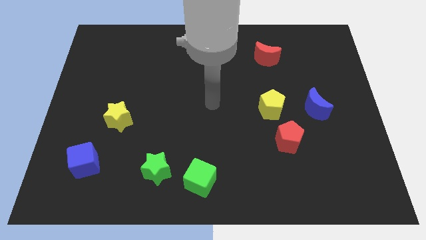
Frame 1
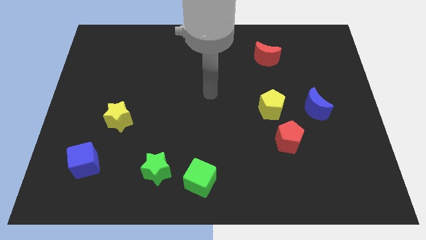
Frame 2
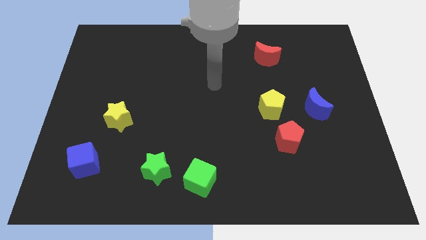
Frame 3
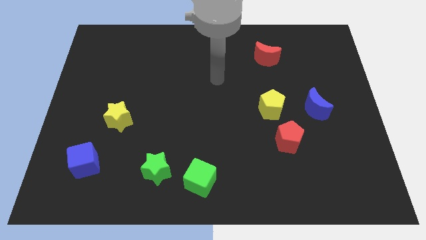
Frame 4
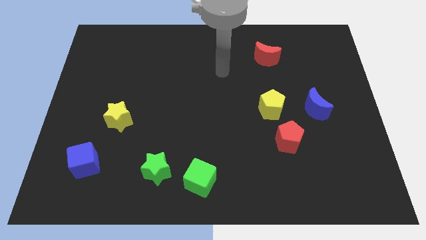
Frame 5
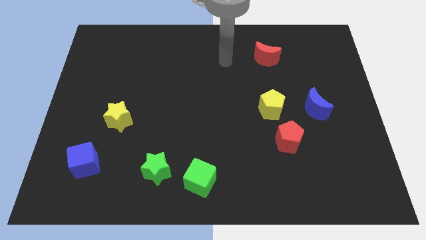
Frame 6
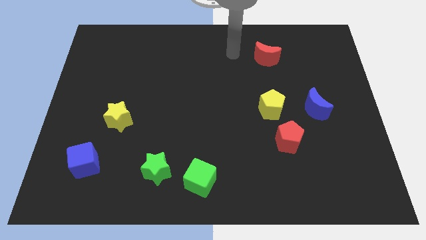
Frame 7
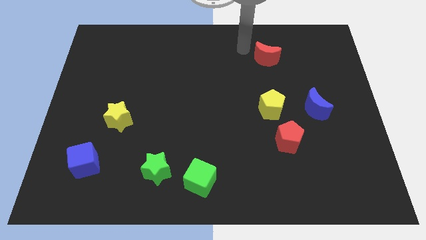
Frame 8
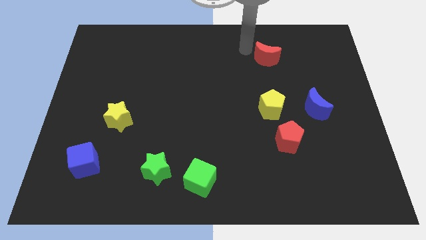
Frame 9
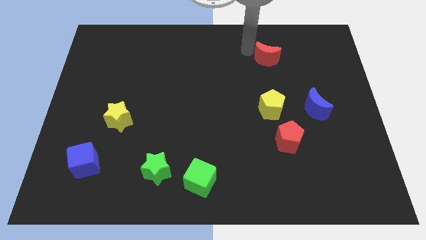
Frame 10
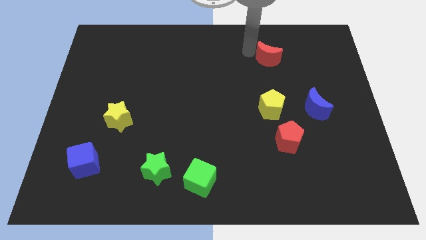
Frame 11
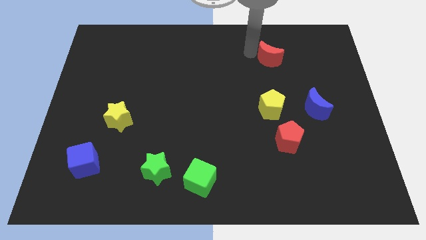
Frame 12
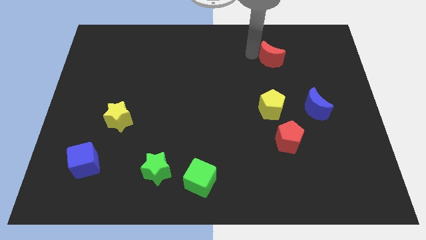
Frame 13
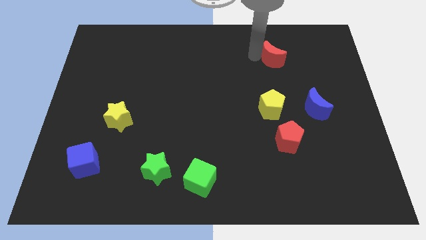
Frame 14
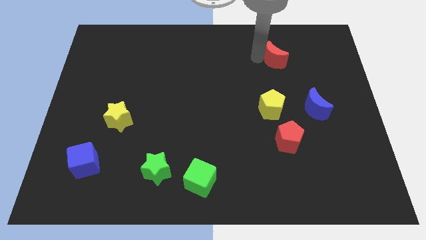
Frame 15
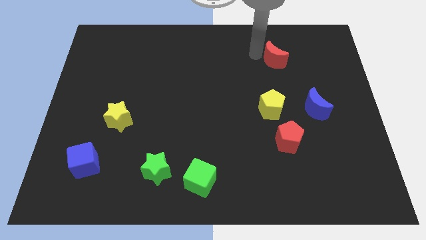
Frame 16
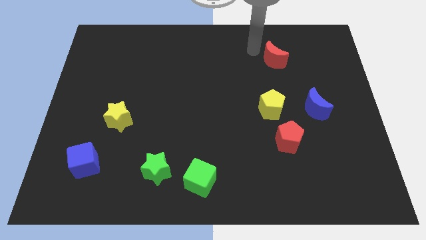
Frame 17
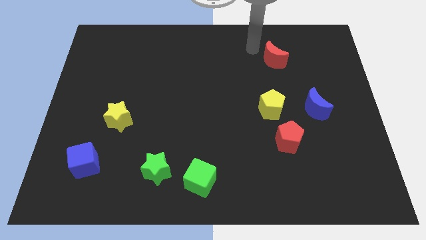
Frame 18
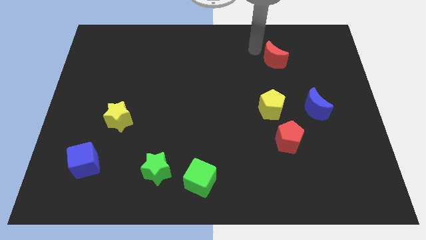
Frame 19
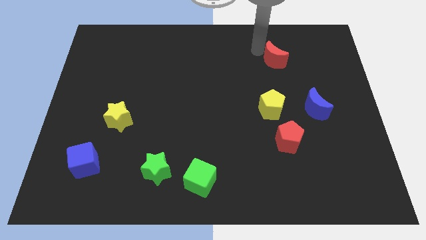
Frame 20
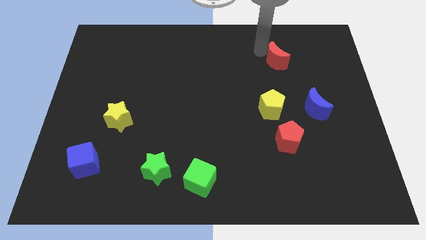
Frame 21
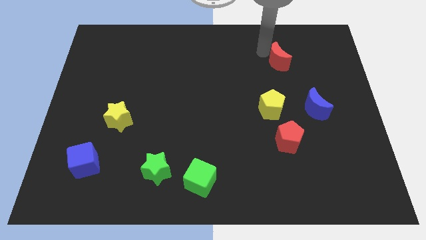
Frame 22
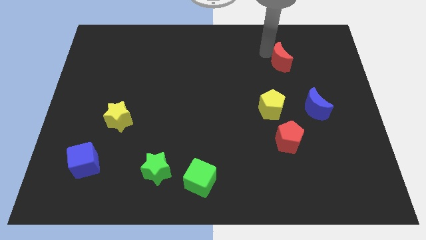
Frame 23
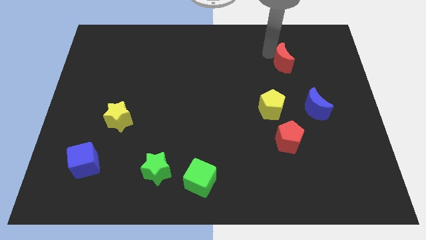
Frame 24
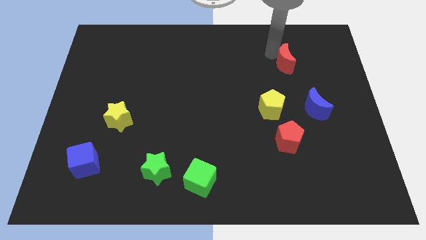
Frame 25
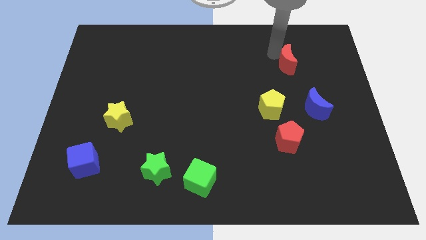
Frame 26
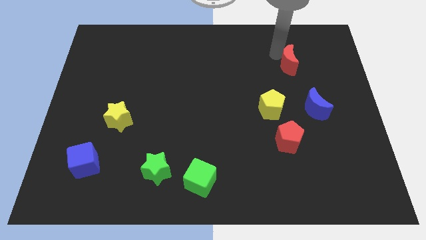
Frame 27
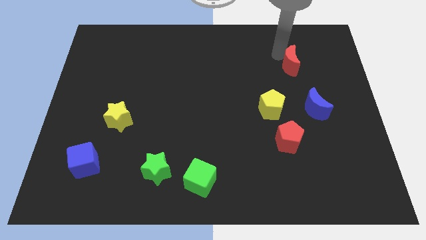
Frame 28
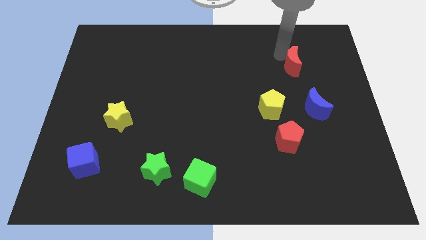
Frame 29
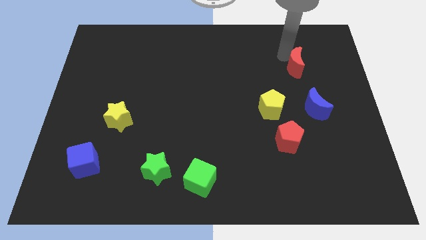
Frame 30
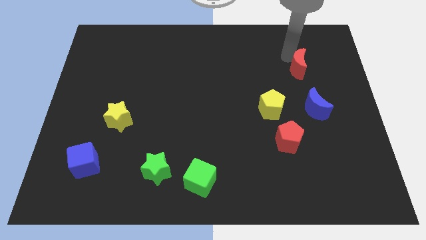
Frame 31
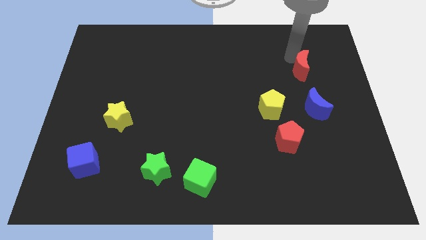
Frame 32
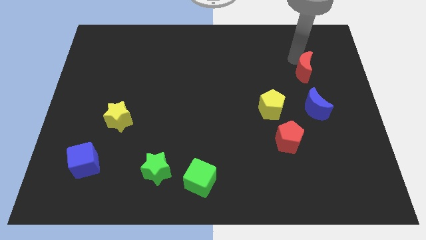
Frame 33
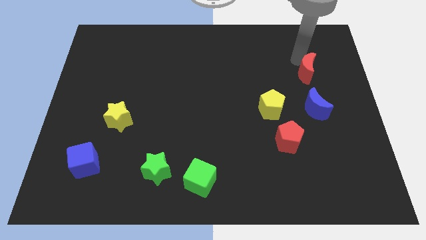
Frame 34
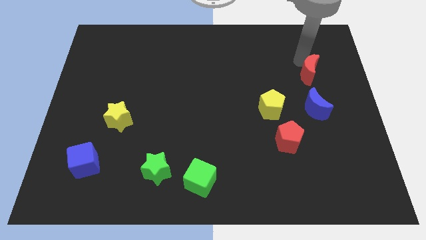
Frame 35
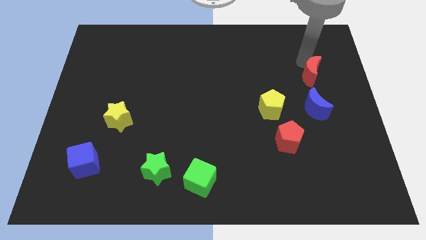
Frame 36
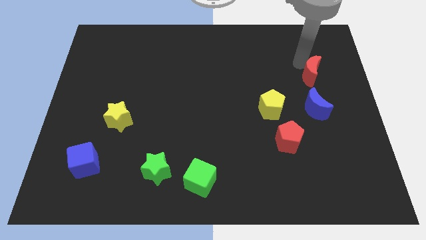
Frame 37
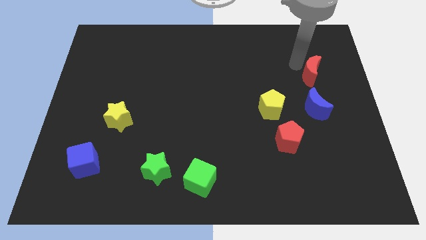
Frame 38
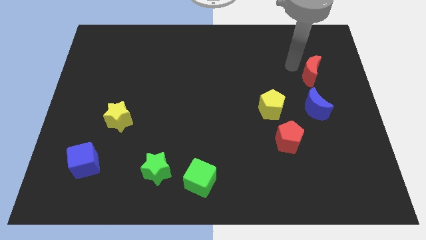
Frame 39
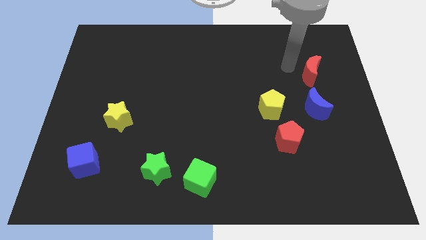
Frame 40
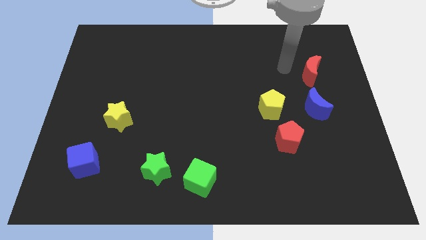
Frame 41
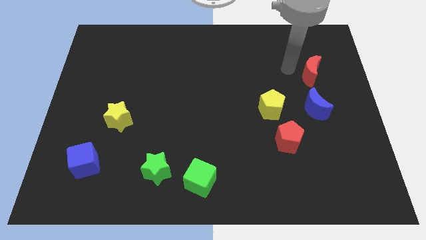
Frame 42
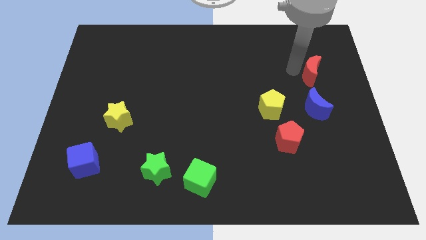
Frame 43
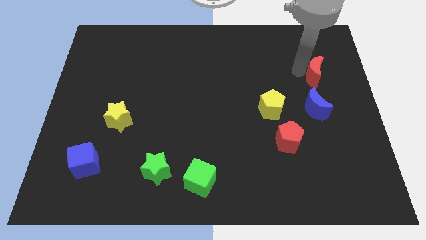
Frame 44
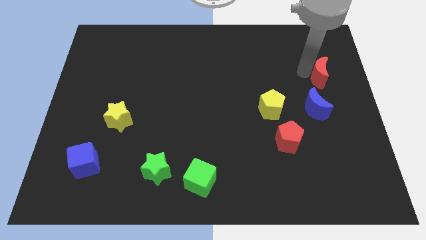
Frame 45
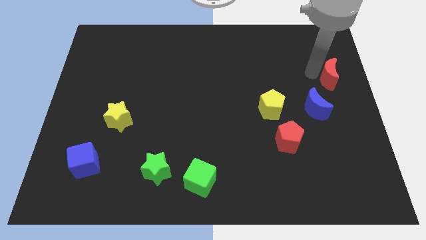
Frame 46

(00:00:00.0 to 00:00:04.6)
move the red moon to the right side

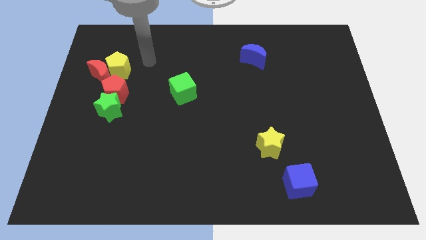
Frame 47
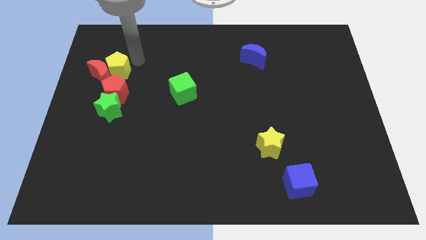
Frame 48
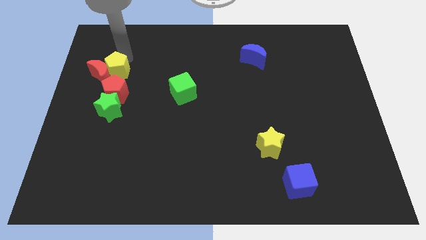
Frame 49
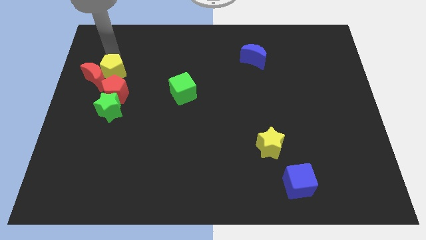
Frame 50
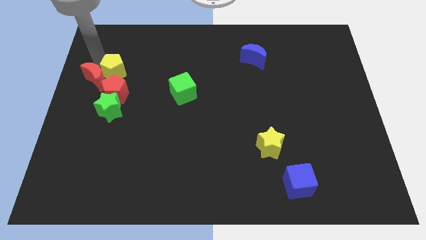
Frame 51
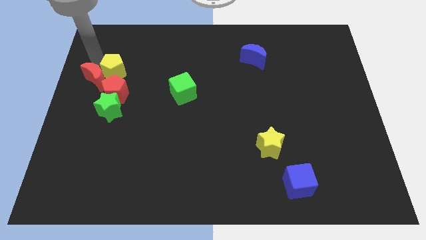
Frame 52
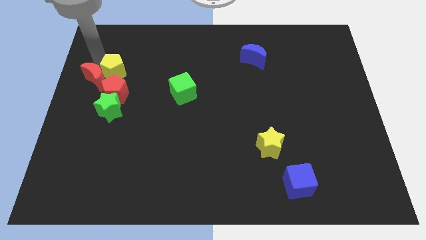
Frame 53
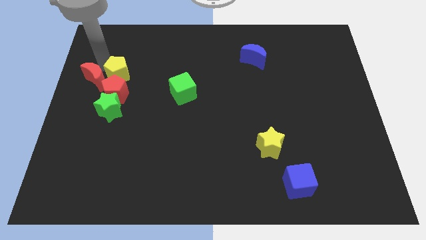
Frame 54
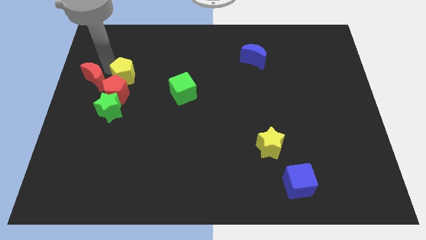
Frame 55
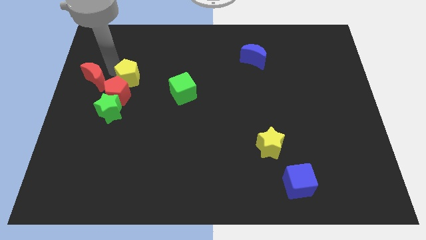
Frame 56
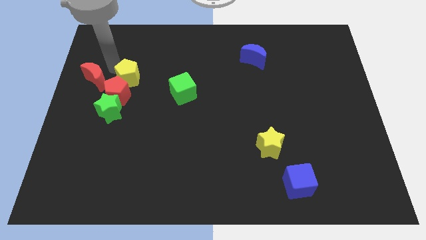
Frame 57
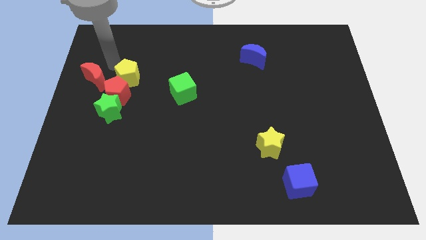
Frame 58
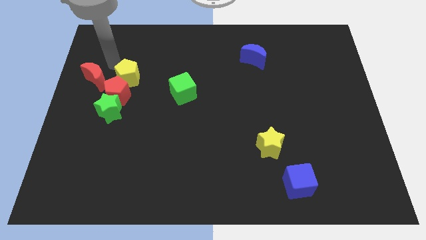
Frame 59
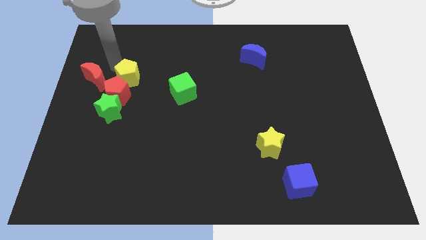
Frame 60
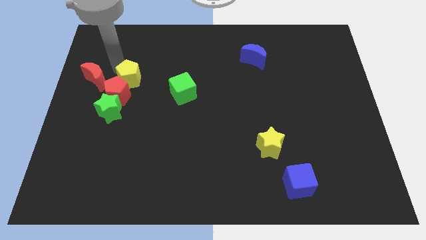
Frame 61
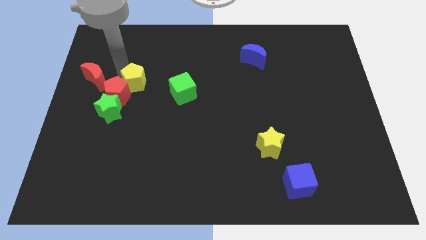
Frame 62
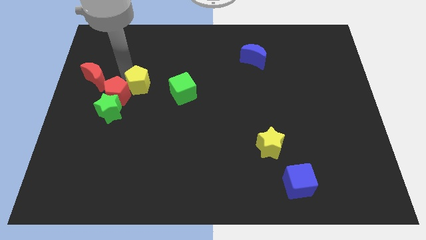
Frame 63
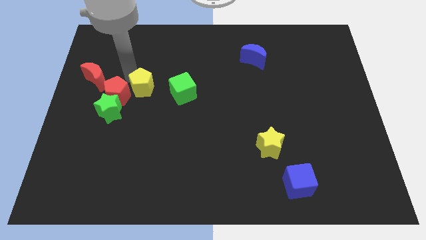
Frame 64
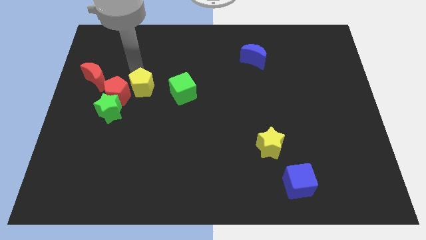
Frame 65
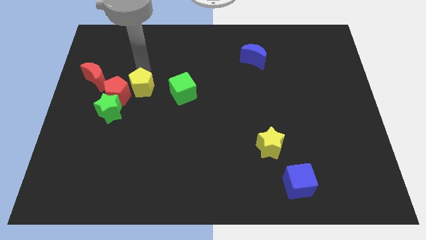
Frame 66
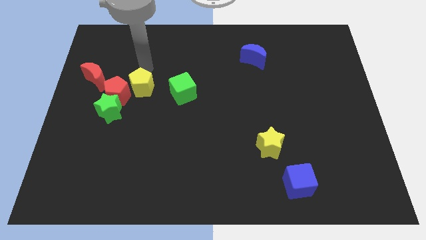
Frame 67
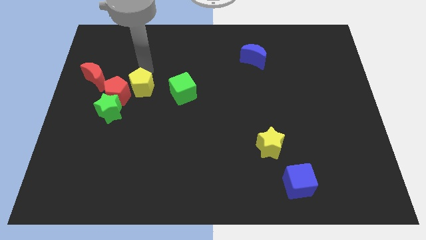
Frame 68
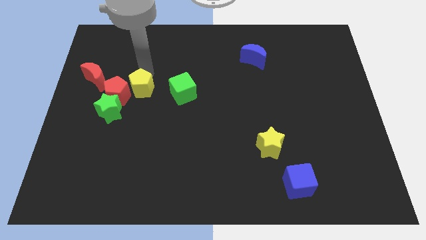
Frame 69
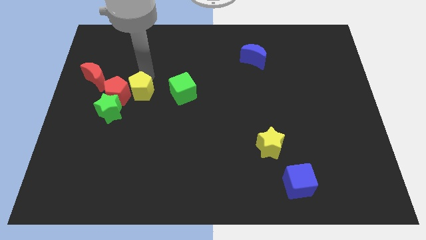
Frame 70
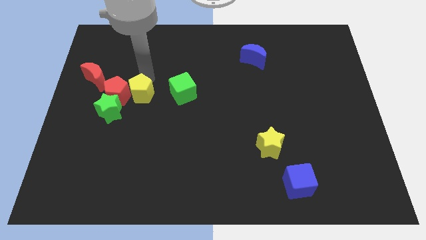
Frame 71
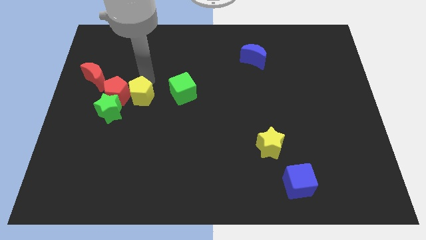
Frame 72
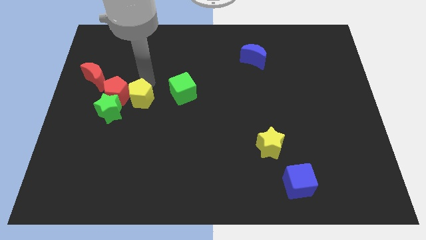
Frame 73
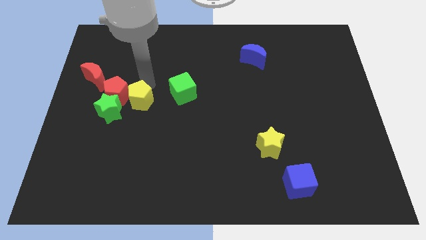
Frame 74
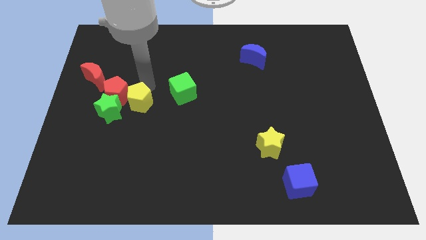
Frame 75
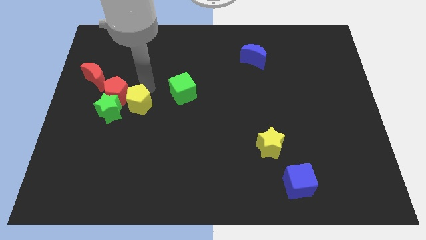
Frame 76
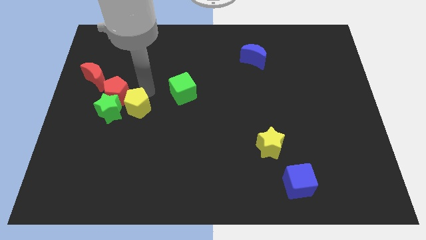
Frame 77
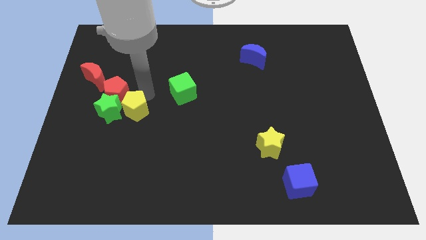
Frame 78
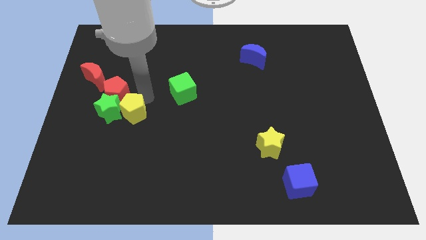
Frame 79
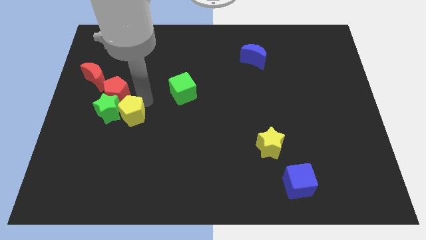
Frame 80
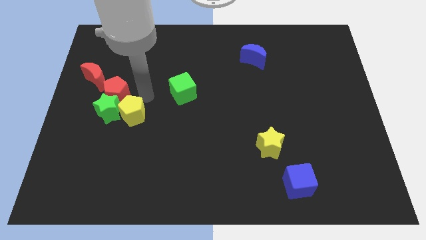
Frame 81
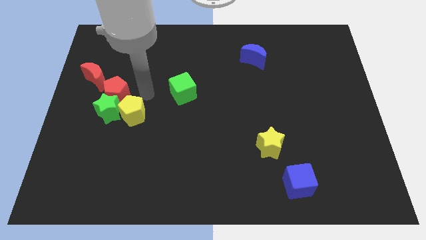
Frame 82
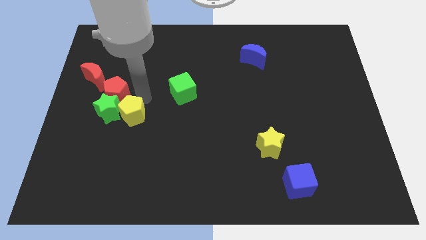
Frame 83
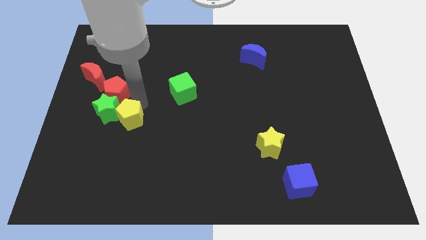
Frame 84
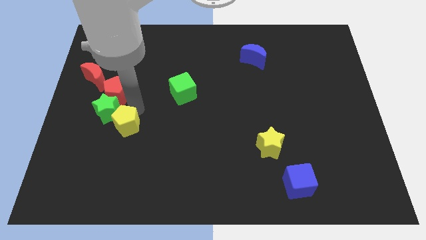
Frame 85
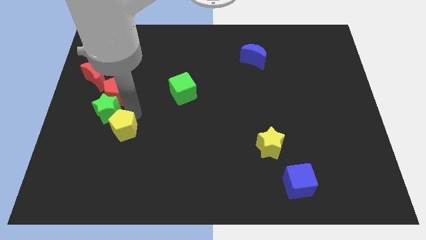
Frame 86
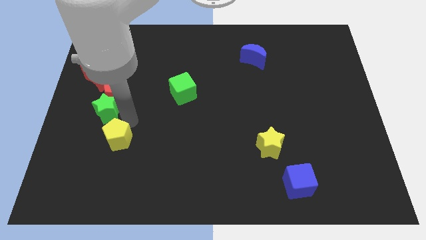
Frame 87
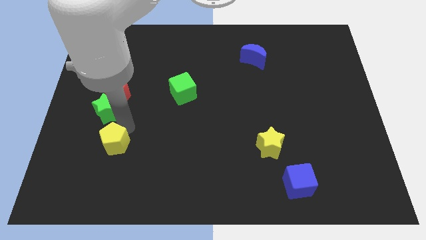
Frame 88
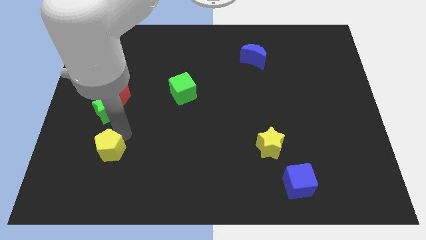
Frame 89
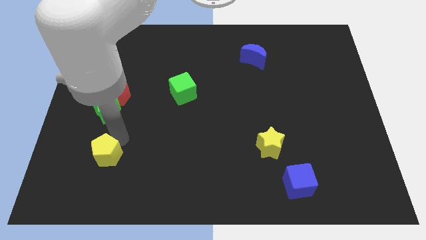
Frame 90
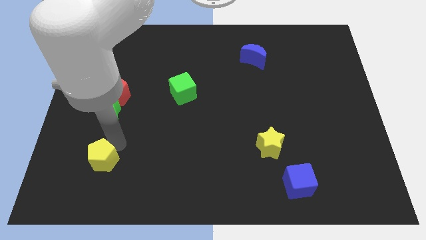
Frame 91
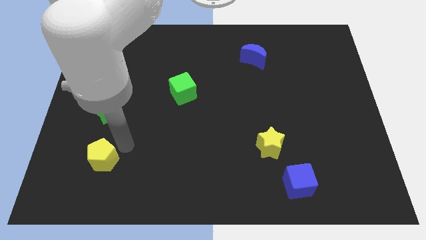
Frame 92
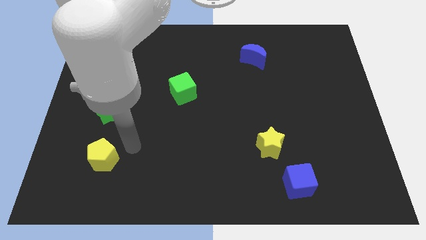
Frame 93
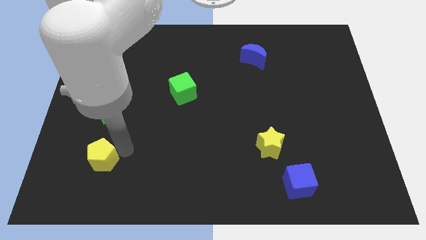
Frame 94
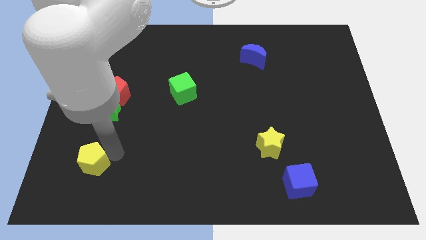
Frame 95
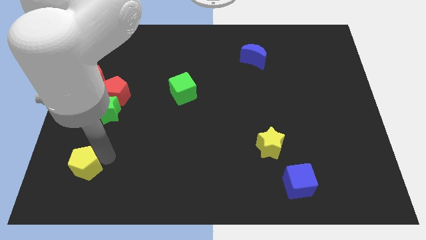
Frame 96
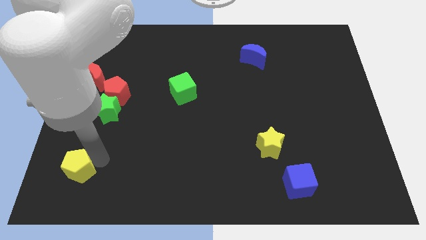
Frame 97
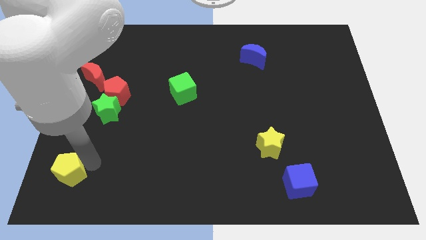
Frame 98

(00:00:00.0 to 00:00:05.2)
slide the yellow pentagon to the bottom left corner
